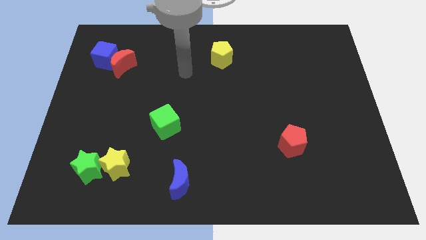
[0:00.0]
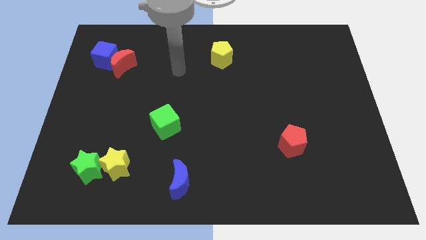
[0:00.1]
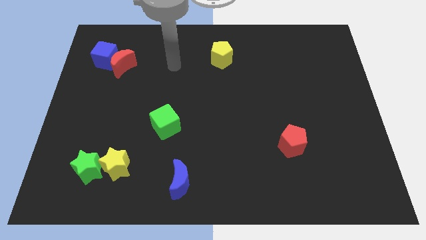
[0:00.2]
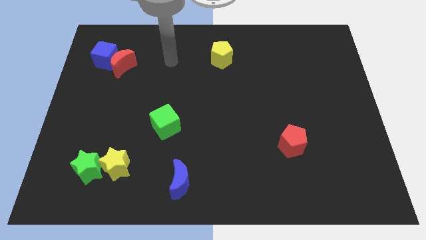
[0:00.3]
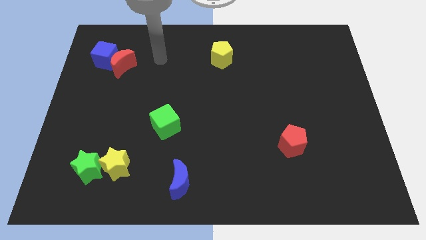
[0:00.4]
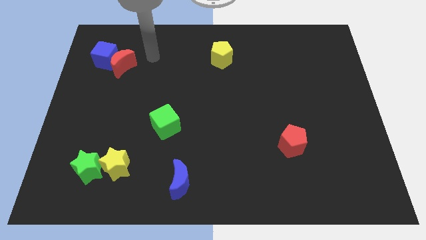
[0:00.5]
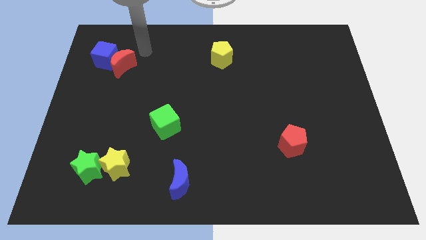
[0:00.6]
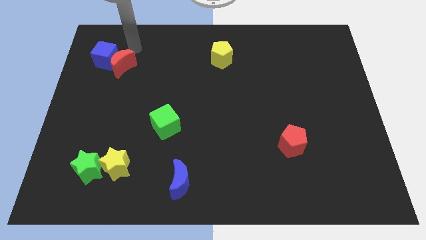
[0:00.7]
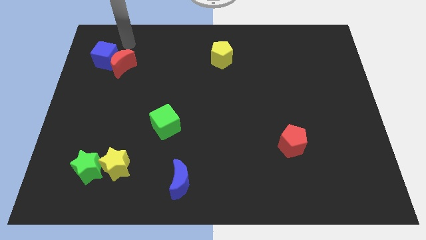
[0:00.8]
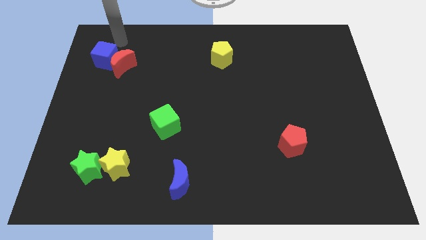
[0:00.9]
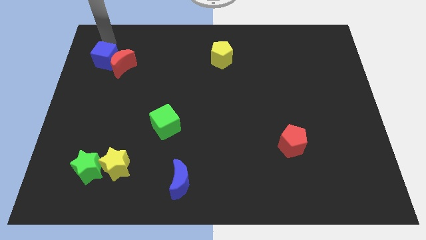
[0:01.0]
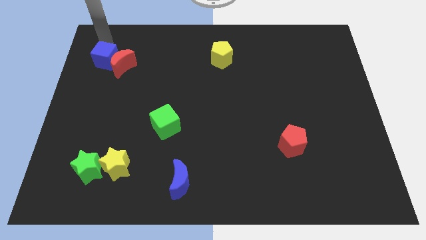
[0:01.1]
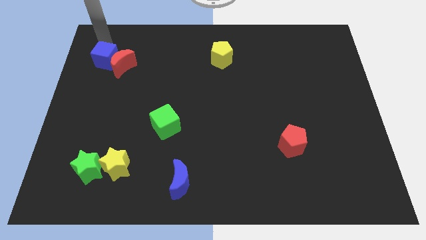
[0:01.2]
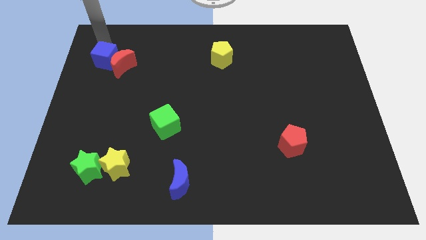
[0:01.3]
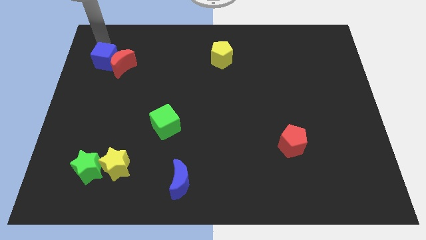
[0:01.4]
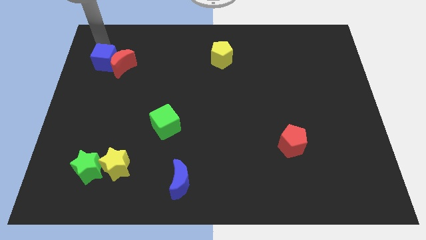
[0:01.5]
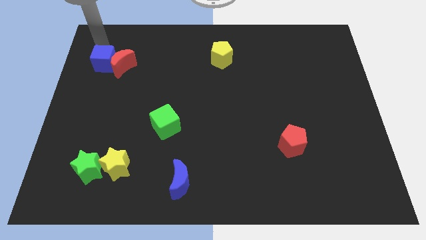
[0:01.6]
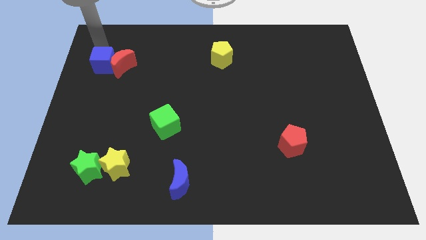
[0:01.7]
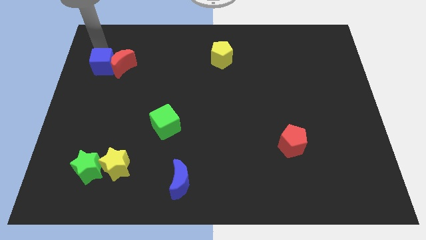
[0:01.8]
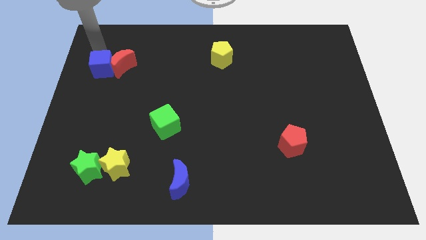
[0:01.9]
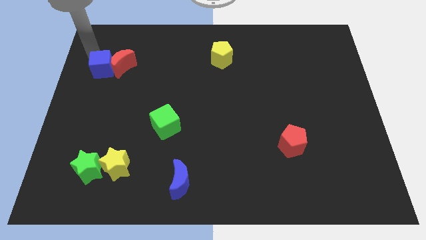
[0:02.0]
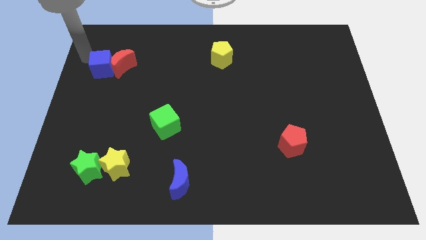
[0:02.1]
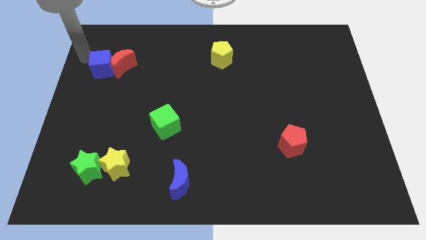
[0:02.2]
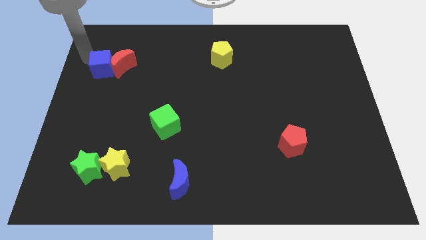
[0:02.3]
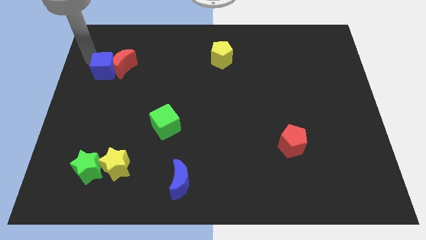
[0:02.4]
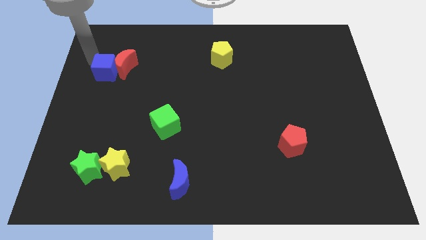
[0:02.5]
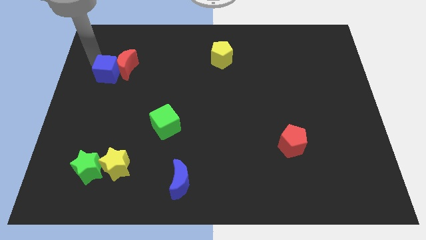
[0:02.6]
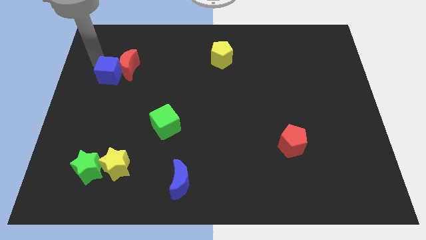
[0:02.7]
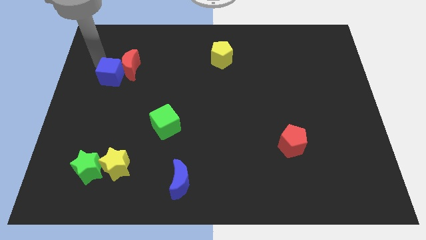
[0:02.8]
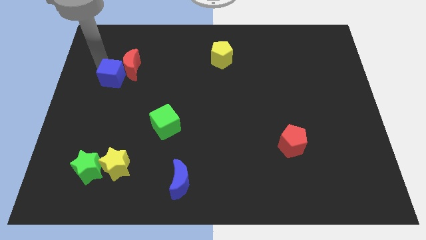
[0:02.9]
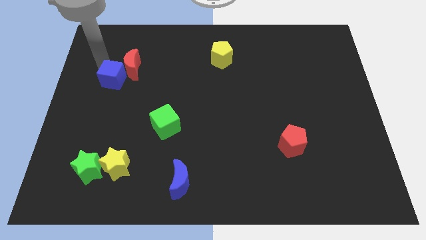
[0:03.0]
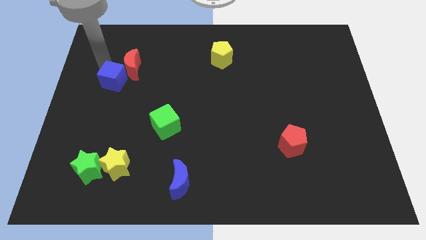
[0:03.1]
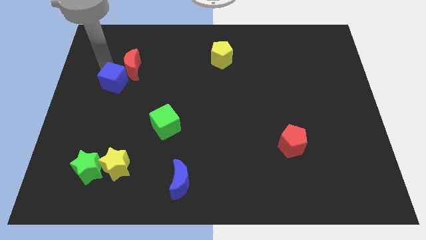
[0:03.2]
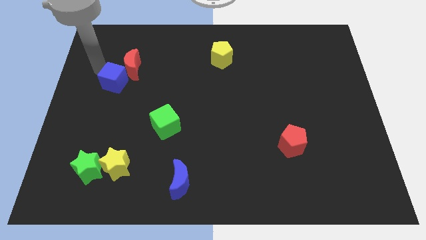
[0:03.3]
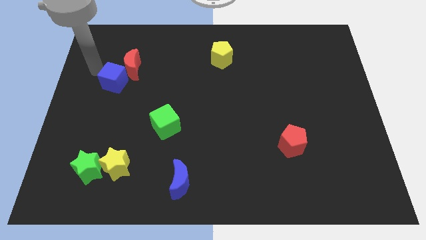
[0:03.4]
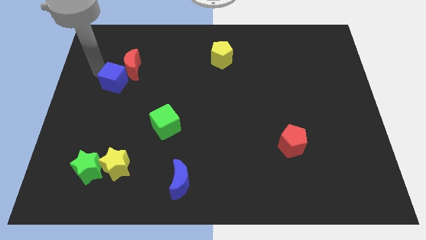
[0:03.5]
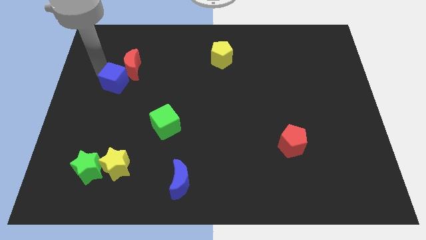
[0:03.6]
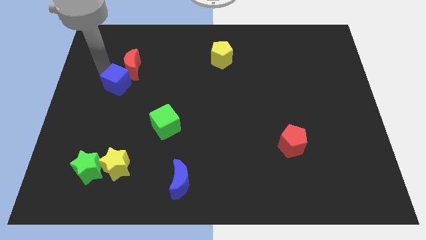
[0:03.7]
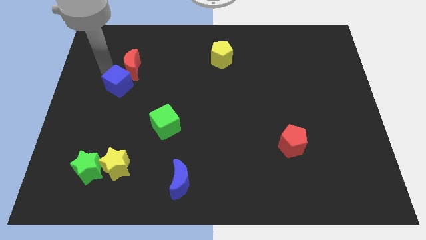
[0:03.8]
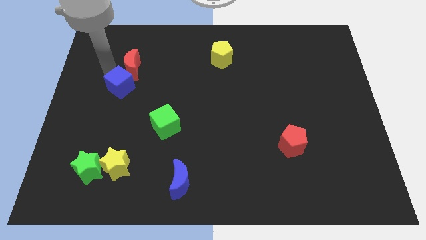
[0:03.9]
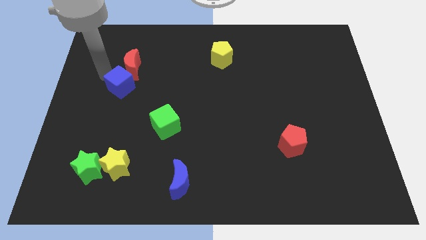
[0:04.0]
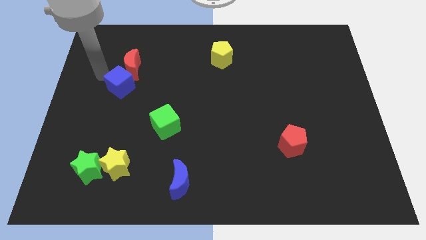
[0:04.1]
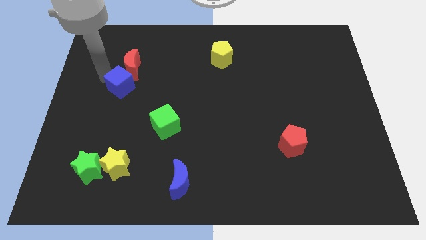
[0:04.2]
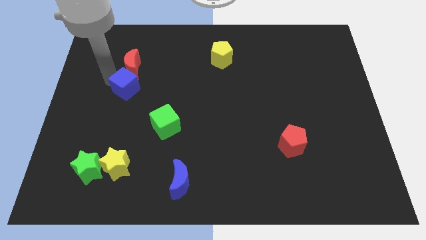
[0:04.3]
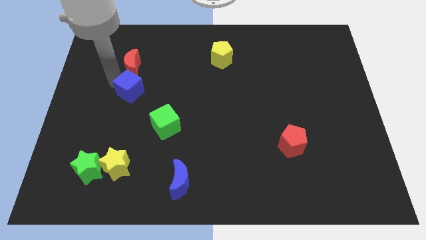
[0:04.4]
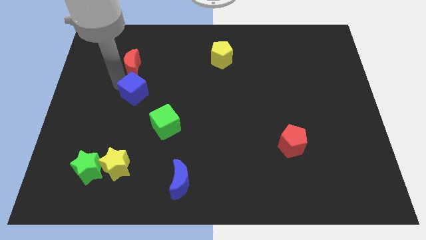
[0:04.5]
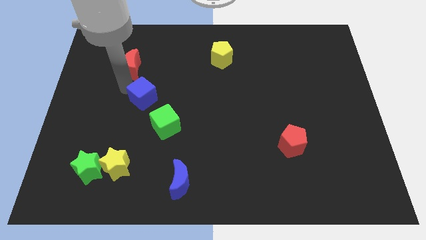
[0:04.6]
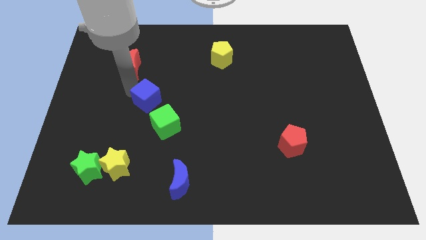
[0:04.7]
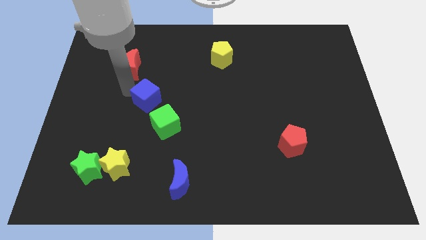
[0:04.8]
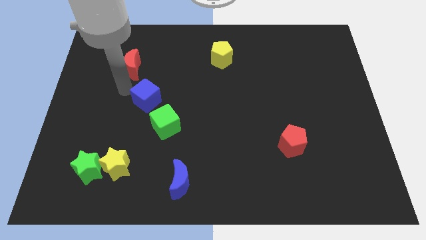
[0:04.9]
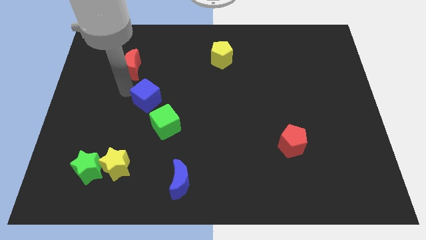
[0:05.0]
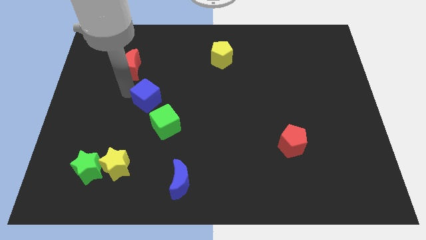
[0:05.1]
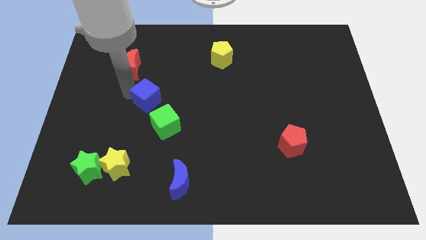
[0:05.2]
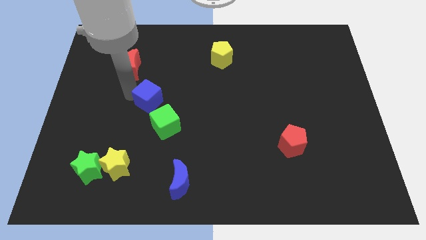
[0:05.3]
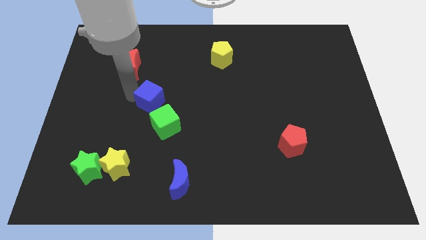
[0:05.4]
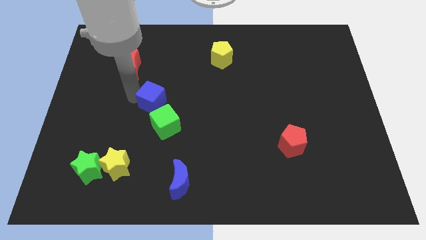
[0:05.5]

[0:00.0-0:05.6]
move the blue cube down and to the right diagonally

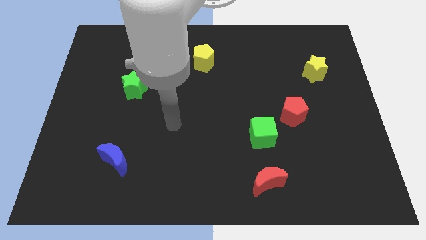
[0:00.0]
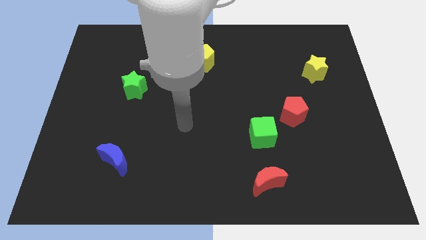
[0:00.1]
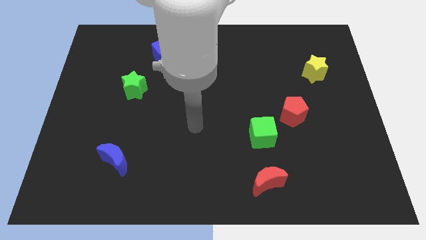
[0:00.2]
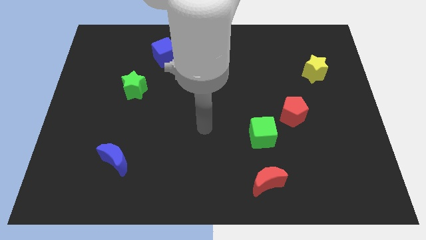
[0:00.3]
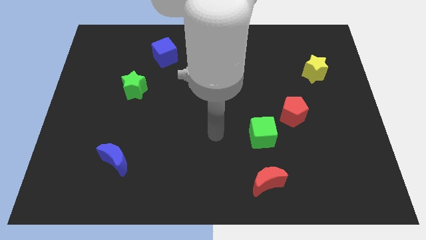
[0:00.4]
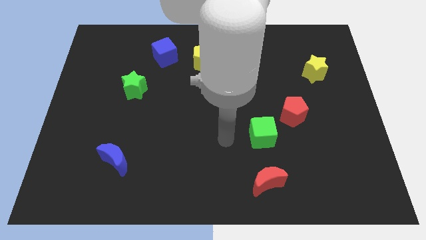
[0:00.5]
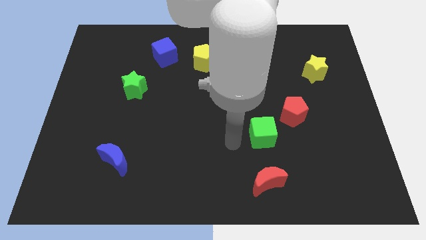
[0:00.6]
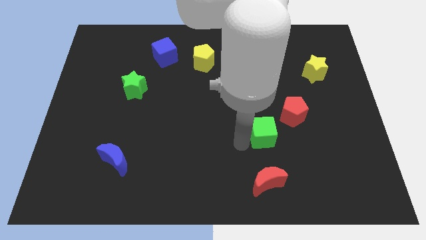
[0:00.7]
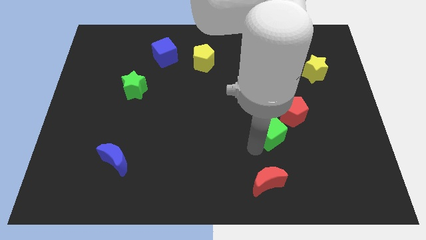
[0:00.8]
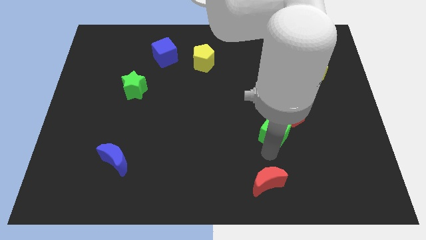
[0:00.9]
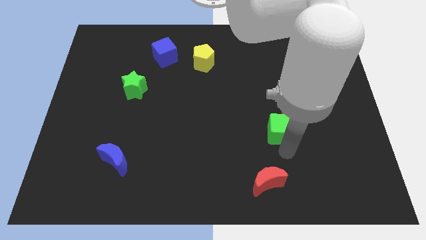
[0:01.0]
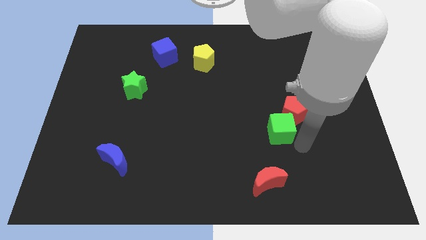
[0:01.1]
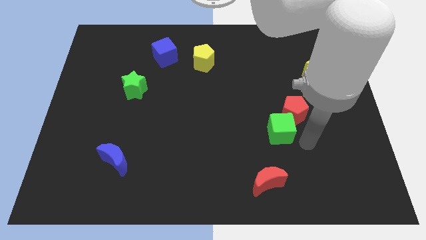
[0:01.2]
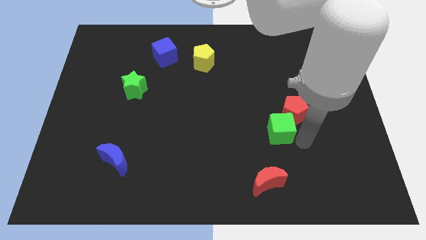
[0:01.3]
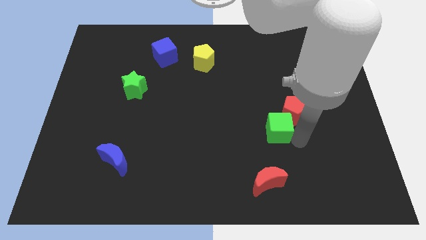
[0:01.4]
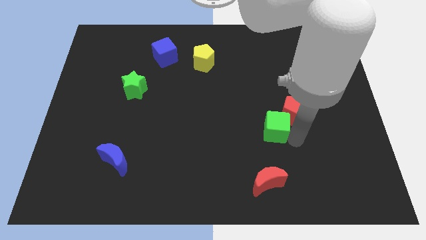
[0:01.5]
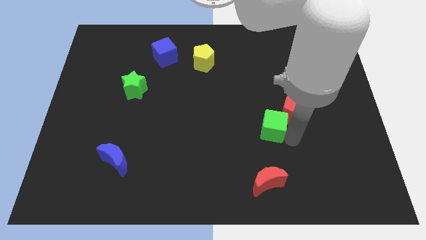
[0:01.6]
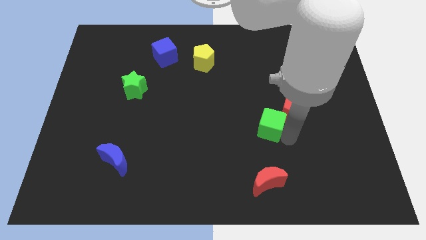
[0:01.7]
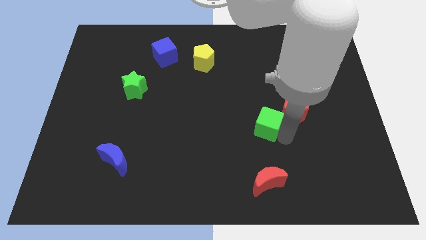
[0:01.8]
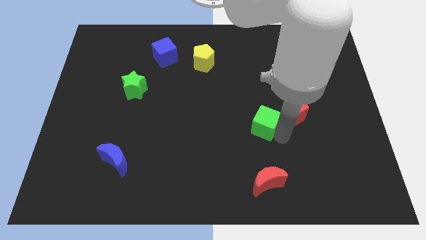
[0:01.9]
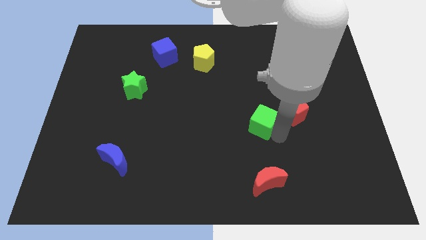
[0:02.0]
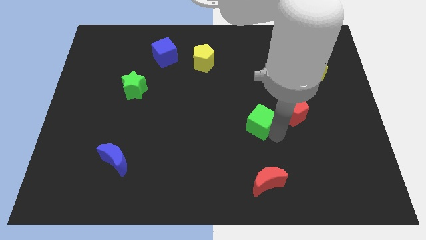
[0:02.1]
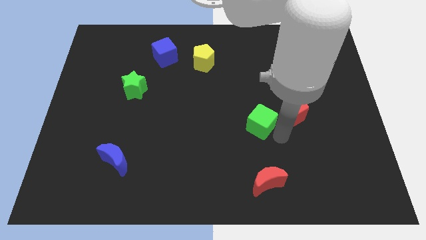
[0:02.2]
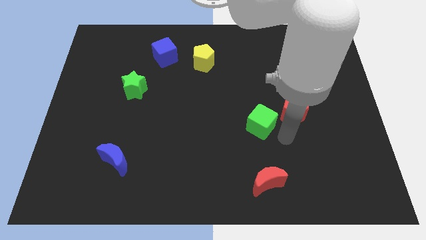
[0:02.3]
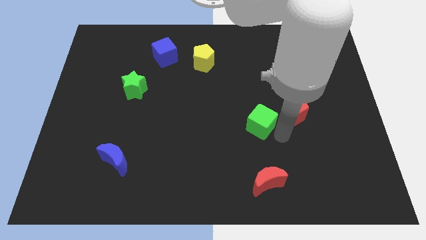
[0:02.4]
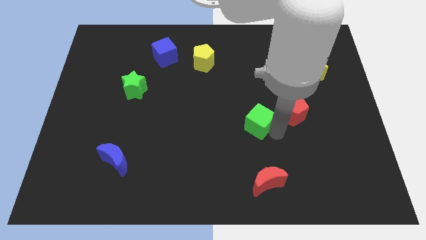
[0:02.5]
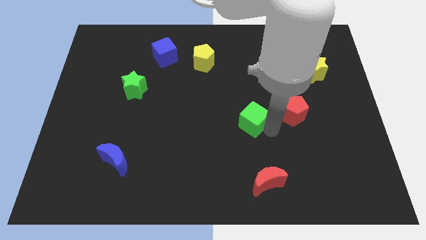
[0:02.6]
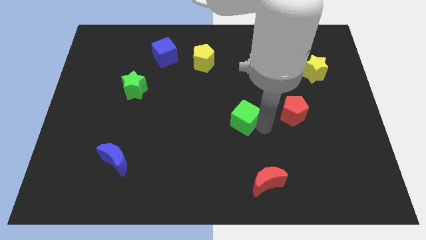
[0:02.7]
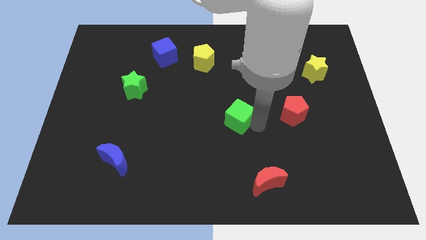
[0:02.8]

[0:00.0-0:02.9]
push the green cube up and left diagonally a little

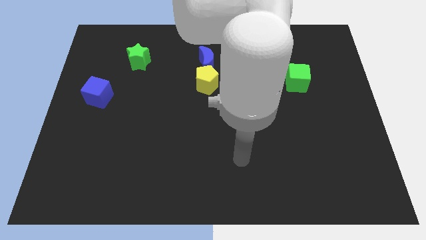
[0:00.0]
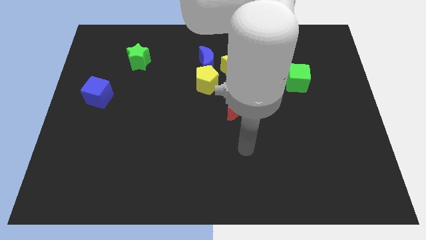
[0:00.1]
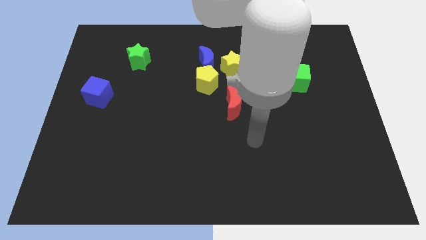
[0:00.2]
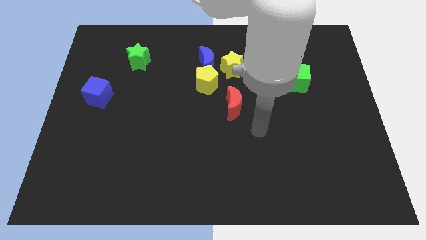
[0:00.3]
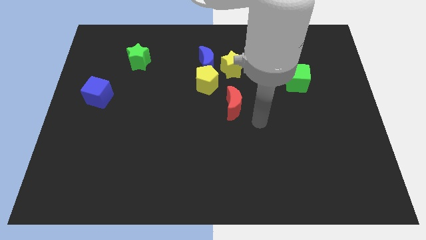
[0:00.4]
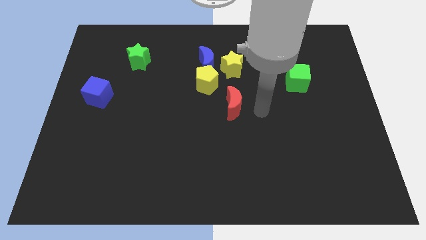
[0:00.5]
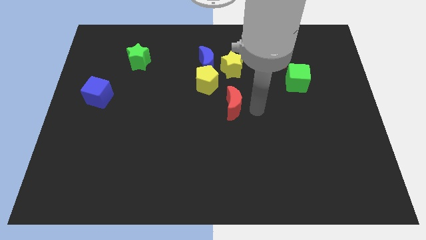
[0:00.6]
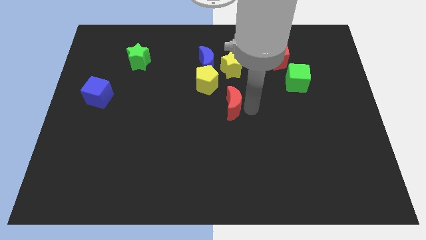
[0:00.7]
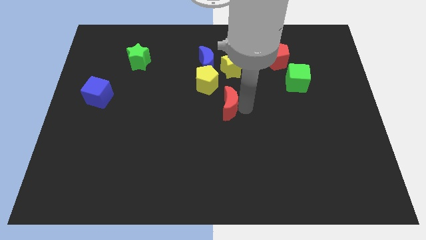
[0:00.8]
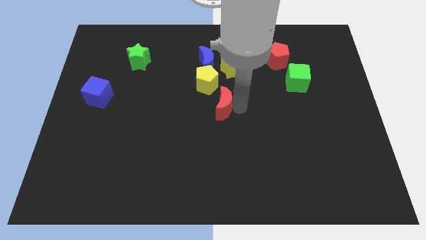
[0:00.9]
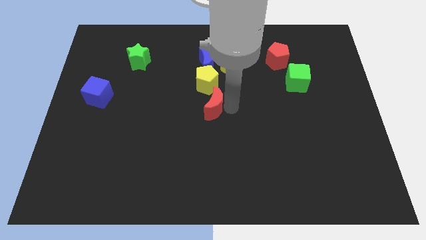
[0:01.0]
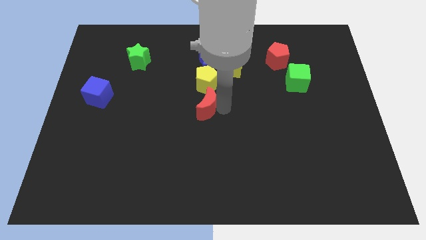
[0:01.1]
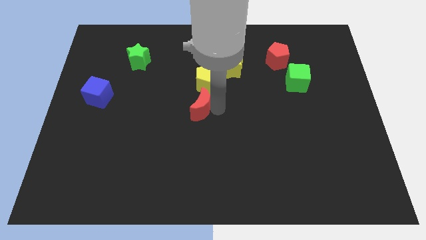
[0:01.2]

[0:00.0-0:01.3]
slide the red moon left somewhat
